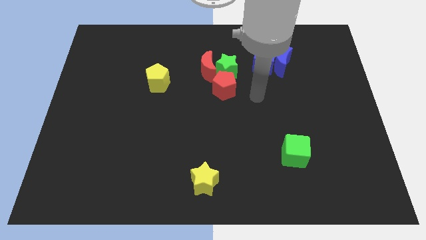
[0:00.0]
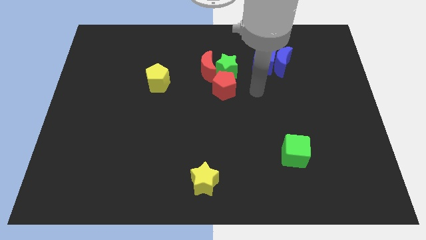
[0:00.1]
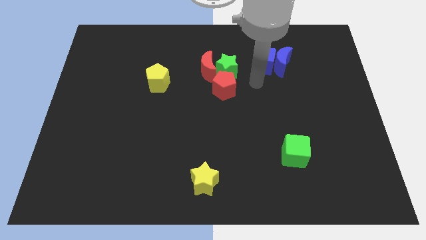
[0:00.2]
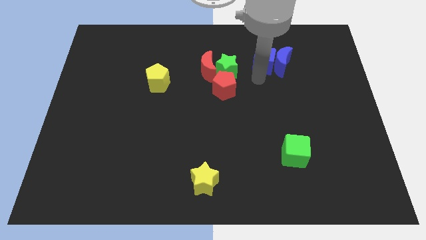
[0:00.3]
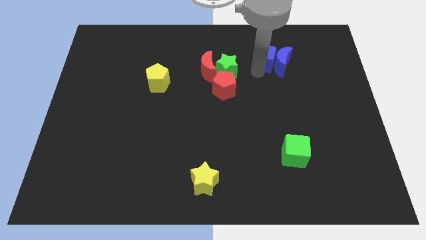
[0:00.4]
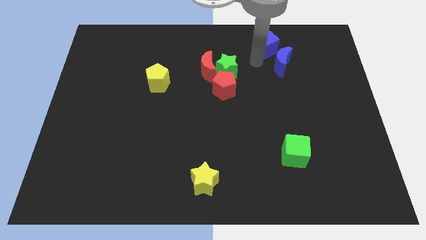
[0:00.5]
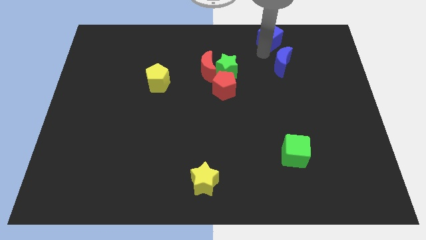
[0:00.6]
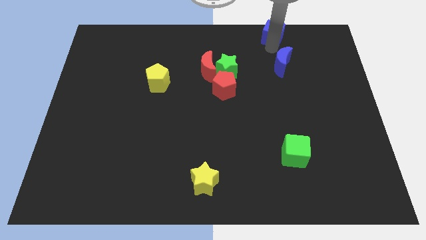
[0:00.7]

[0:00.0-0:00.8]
separate the blue moon from the blue cube

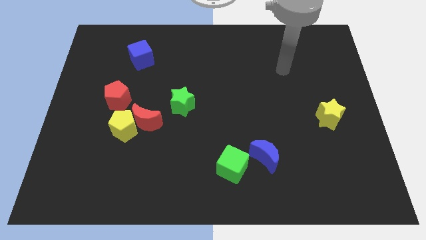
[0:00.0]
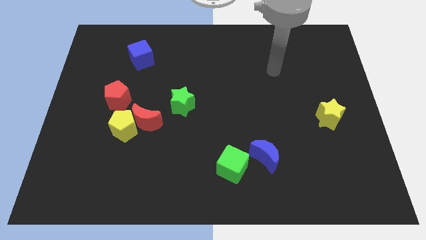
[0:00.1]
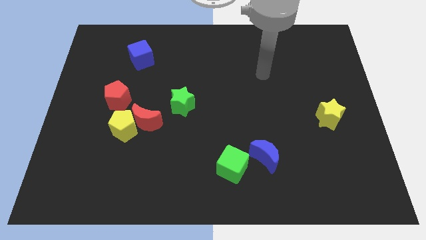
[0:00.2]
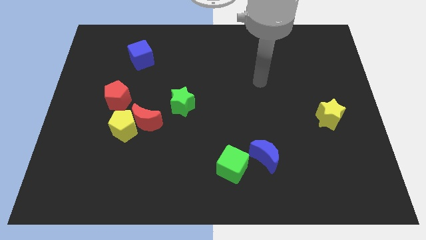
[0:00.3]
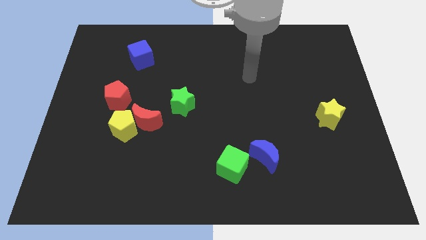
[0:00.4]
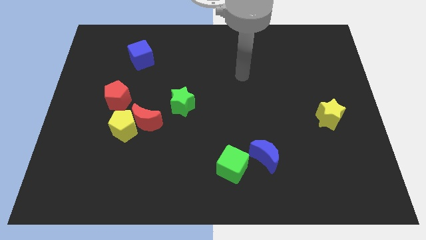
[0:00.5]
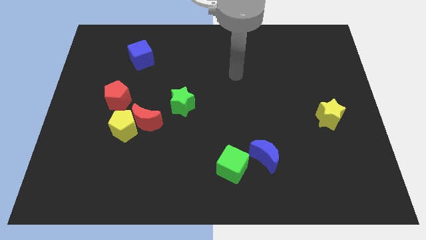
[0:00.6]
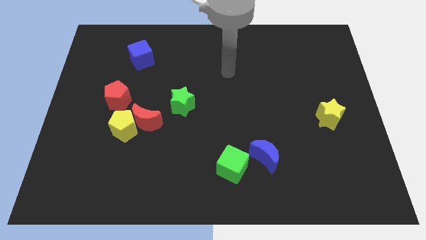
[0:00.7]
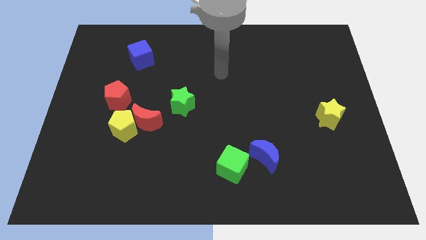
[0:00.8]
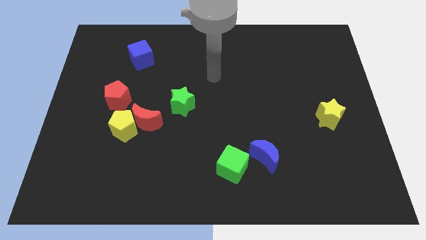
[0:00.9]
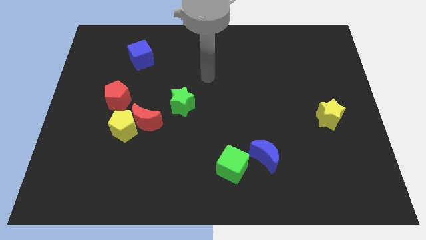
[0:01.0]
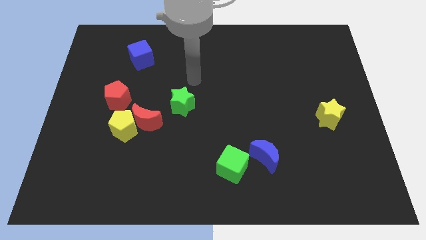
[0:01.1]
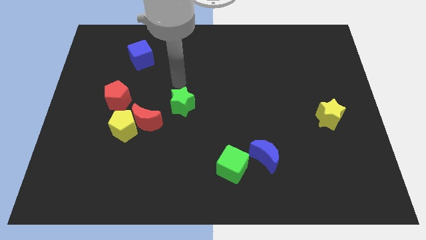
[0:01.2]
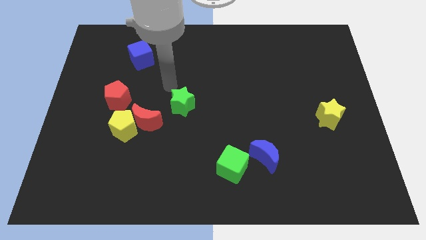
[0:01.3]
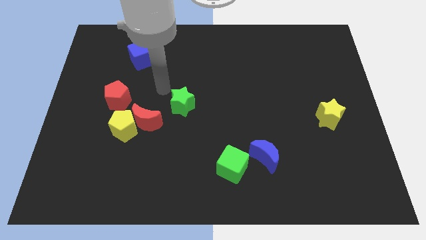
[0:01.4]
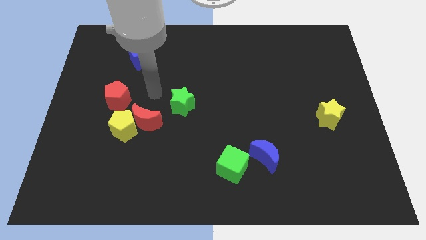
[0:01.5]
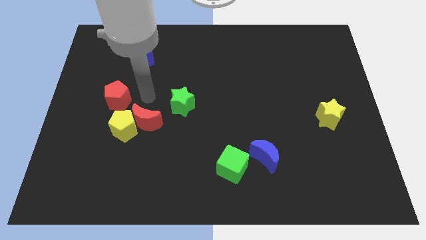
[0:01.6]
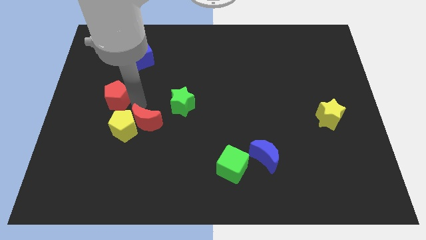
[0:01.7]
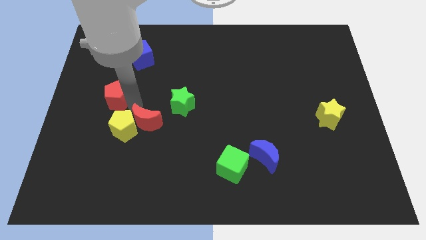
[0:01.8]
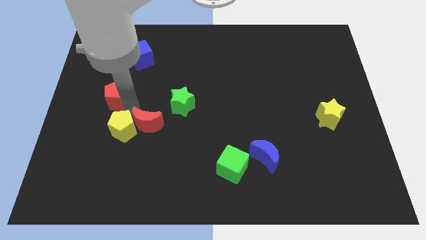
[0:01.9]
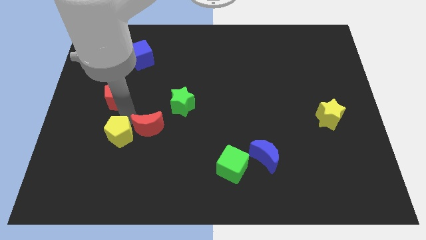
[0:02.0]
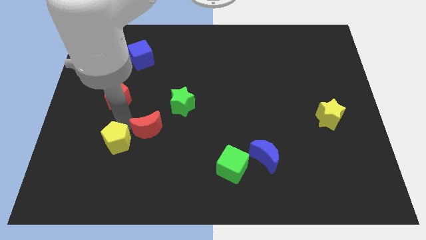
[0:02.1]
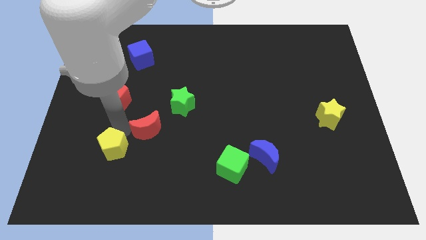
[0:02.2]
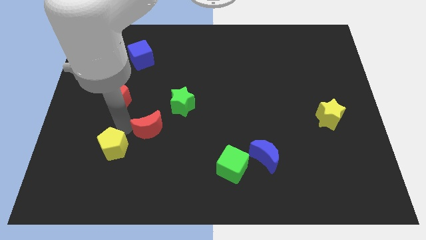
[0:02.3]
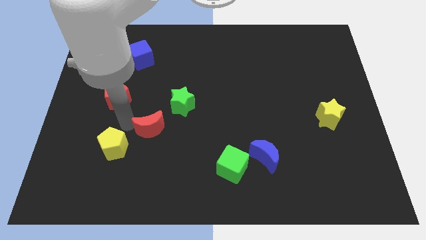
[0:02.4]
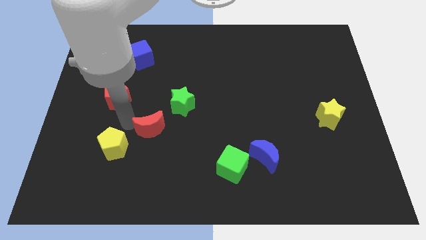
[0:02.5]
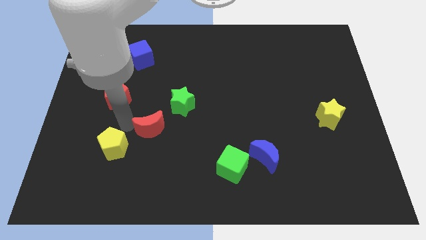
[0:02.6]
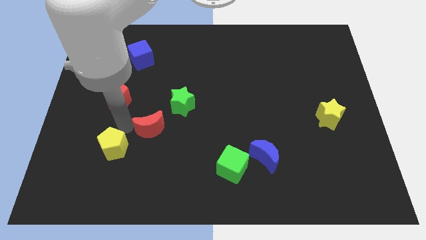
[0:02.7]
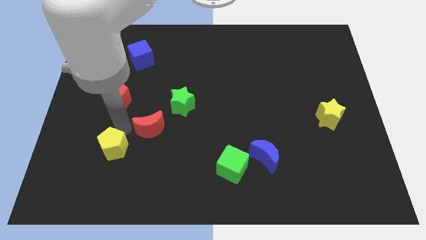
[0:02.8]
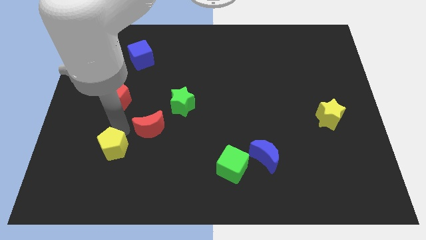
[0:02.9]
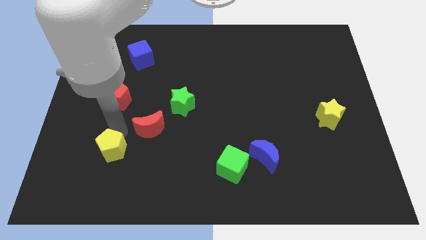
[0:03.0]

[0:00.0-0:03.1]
pull the yellow pentagon apart from the red moon and red pentagon

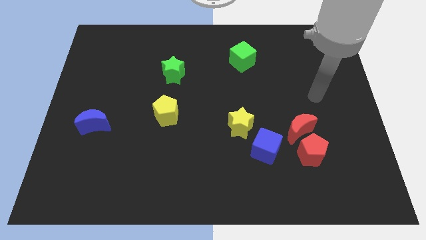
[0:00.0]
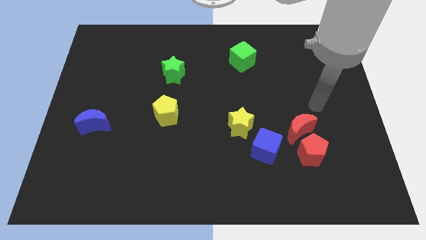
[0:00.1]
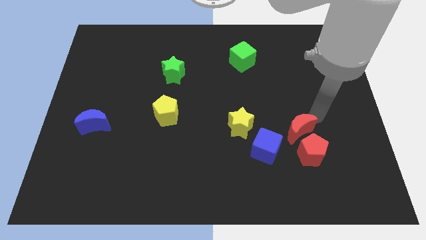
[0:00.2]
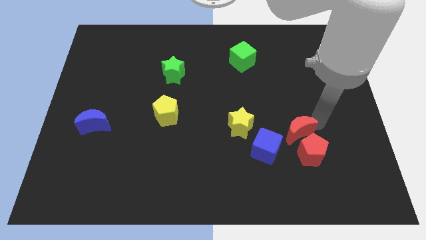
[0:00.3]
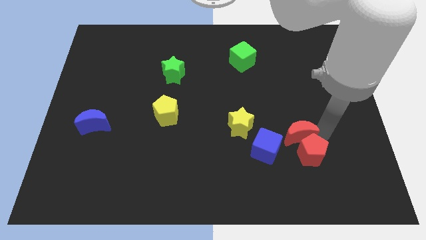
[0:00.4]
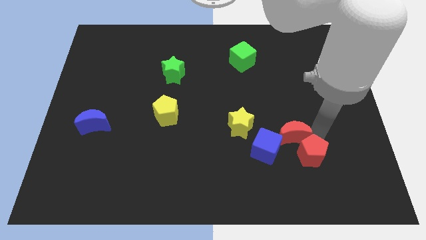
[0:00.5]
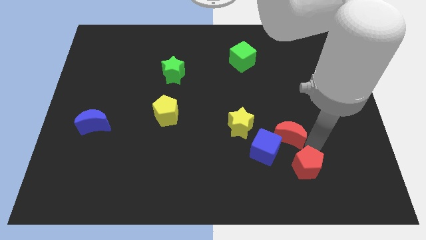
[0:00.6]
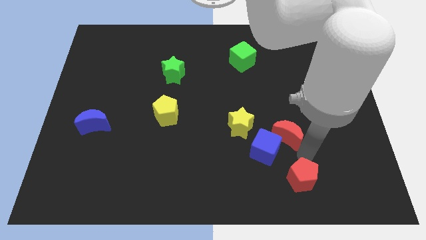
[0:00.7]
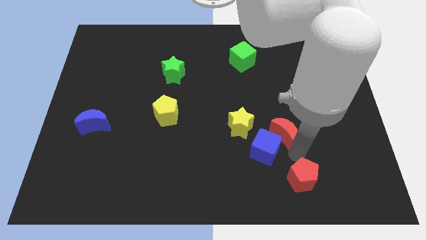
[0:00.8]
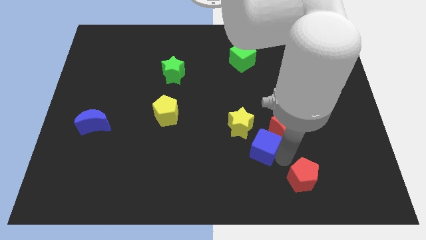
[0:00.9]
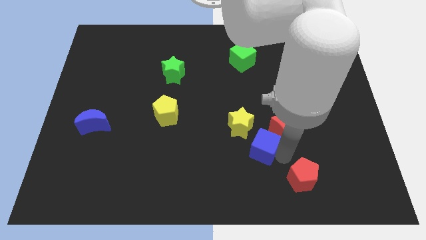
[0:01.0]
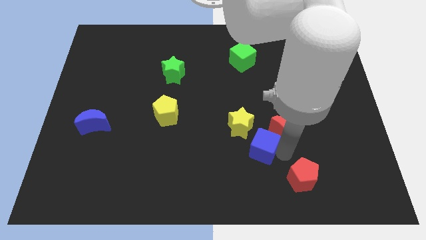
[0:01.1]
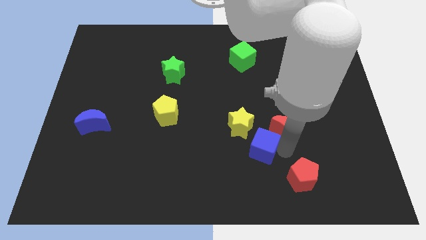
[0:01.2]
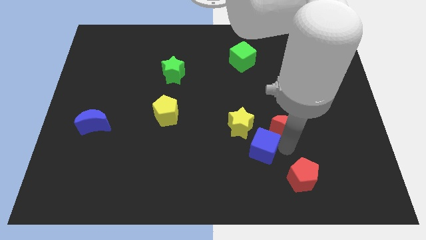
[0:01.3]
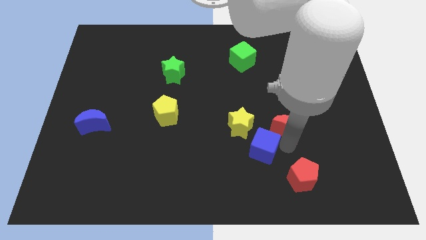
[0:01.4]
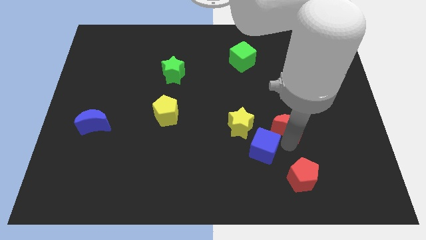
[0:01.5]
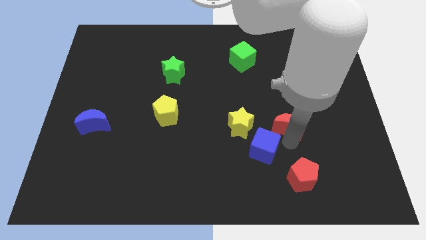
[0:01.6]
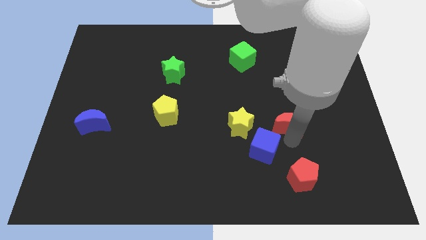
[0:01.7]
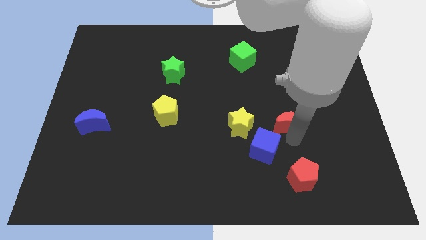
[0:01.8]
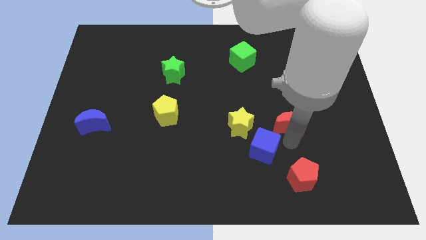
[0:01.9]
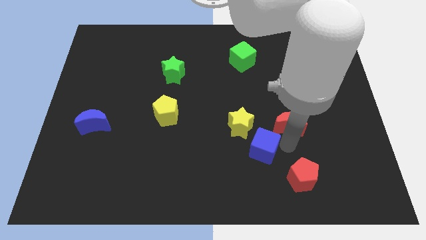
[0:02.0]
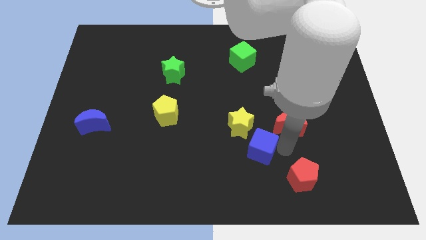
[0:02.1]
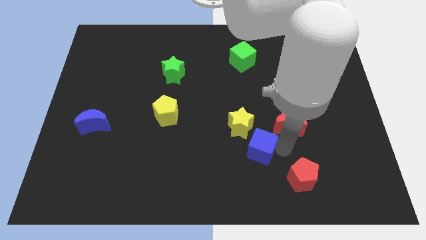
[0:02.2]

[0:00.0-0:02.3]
pull the red moon apart from the red pentagon and blue cube

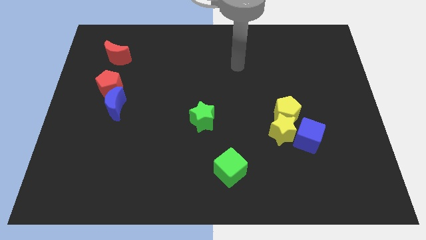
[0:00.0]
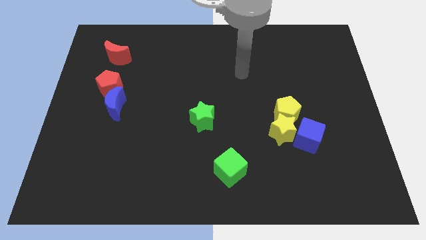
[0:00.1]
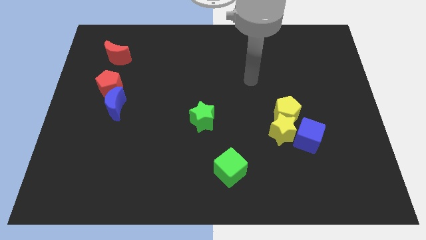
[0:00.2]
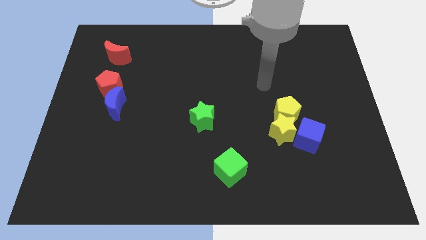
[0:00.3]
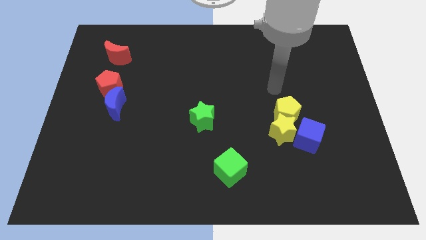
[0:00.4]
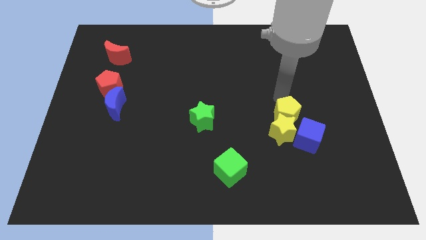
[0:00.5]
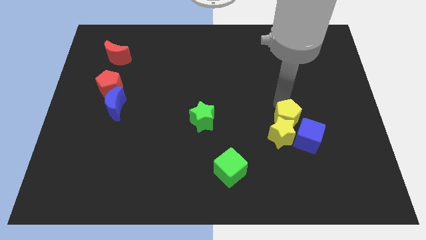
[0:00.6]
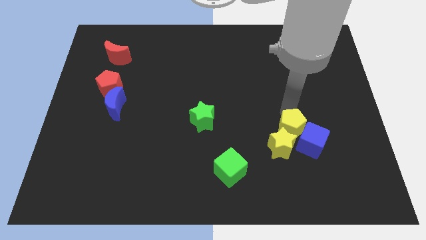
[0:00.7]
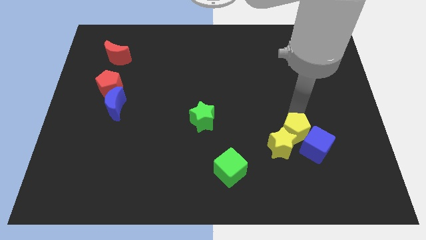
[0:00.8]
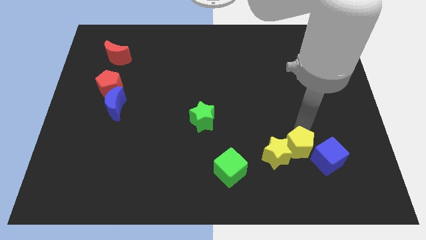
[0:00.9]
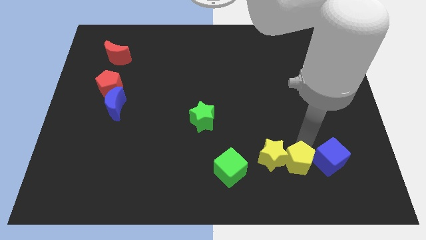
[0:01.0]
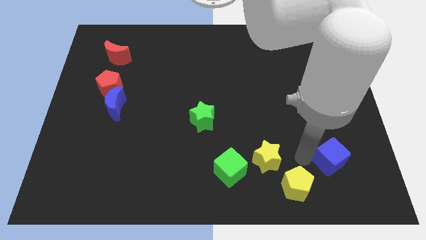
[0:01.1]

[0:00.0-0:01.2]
separate the yellow star from the yellow pentagon and blue cube

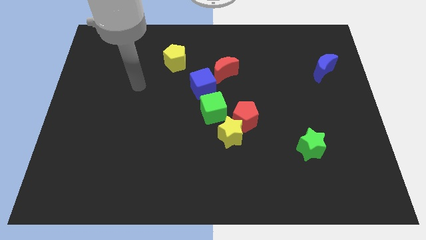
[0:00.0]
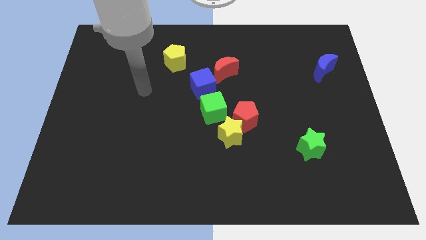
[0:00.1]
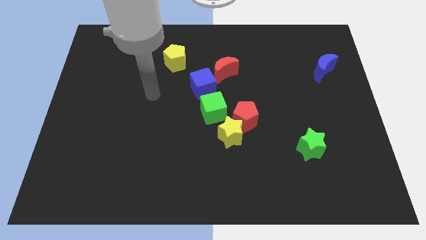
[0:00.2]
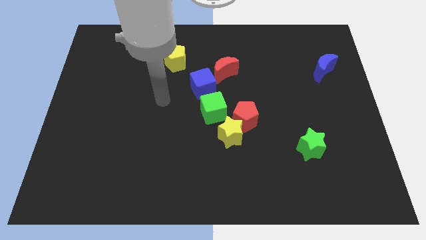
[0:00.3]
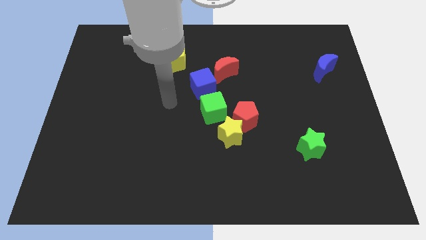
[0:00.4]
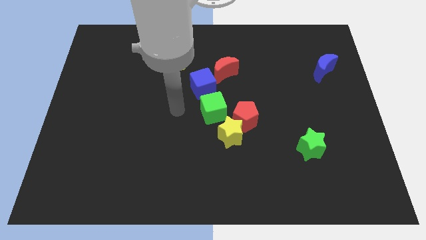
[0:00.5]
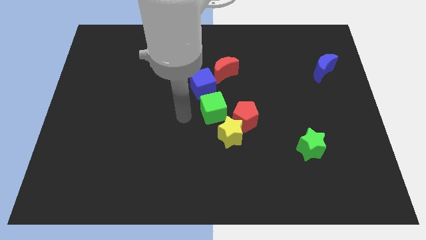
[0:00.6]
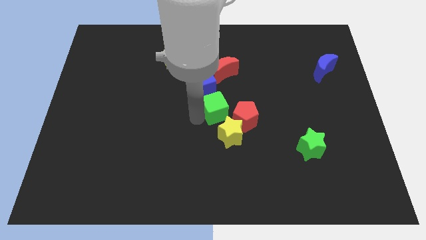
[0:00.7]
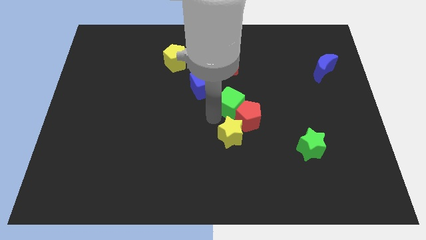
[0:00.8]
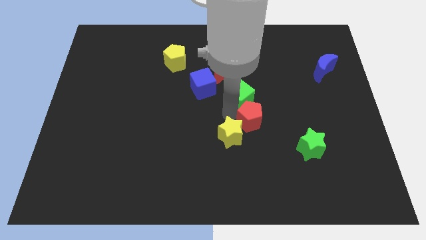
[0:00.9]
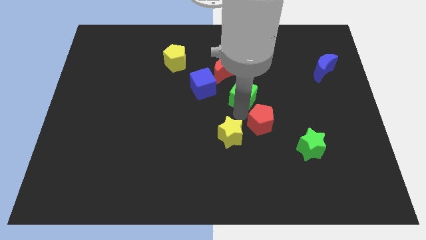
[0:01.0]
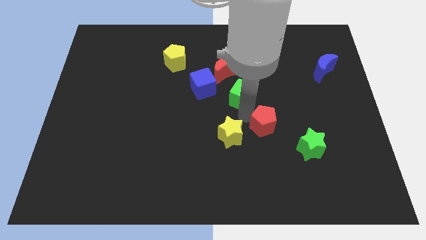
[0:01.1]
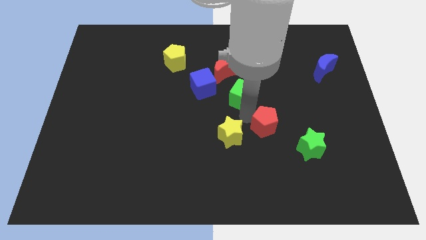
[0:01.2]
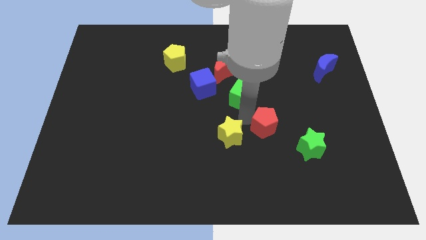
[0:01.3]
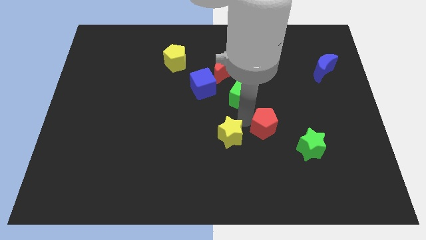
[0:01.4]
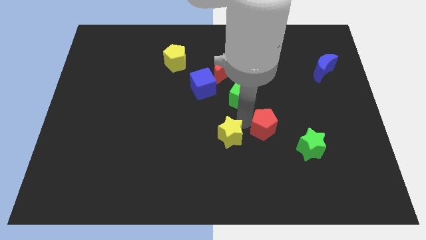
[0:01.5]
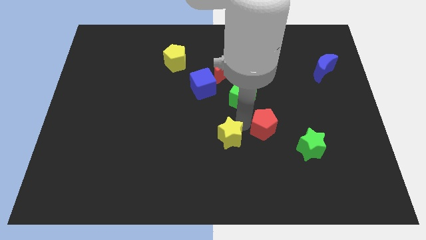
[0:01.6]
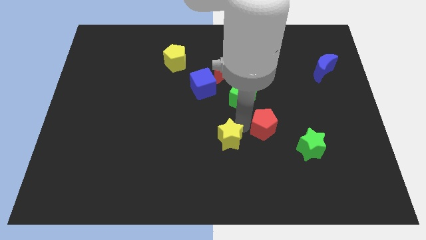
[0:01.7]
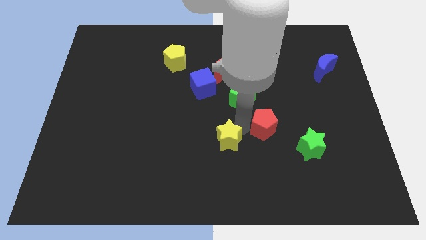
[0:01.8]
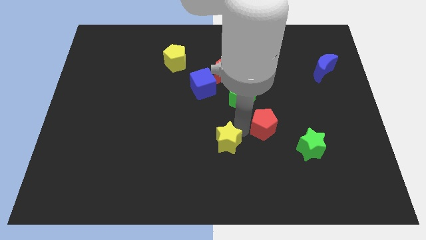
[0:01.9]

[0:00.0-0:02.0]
separate the yellow star from the red pentagon and green cube
